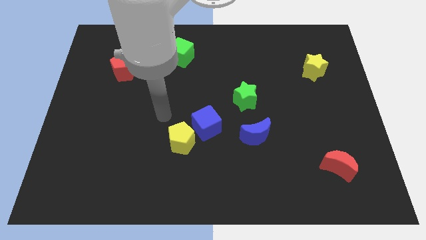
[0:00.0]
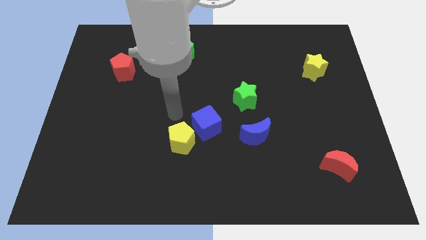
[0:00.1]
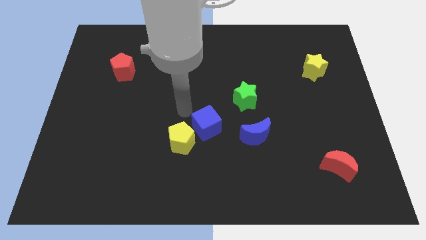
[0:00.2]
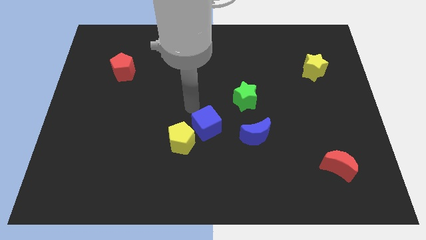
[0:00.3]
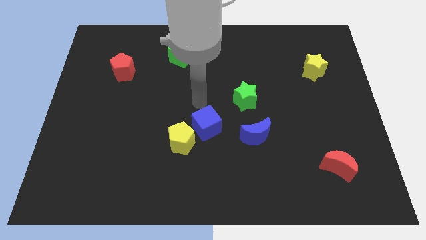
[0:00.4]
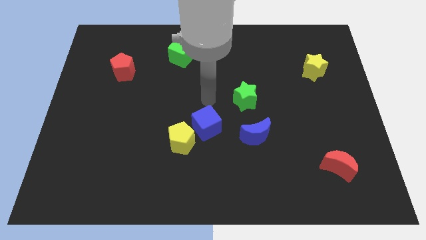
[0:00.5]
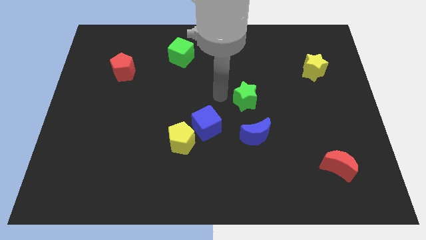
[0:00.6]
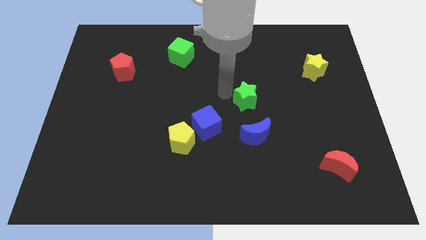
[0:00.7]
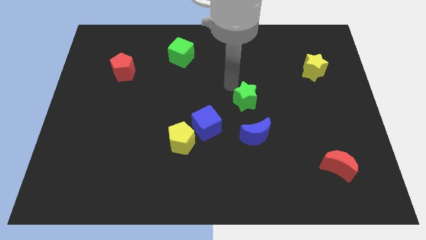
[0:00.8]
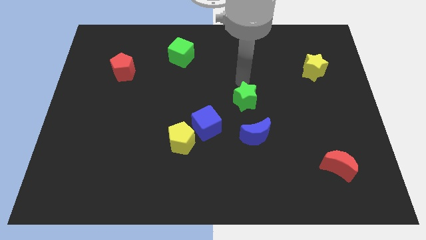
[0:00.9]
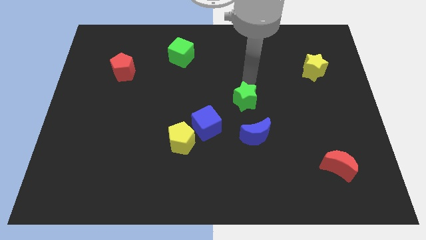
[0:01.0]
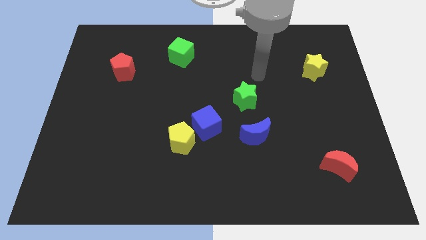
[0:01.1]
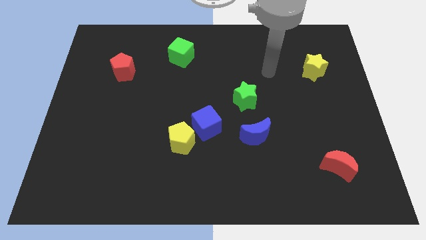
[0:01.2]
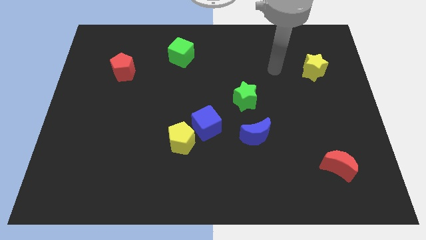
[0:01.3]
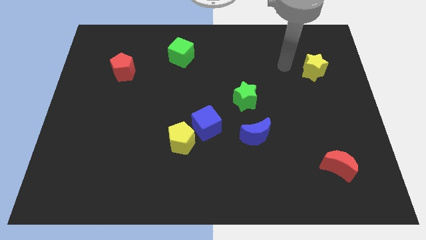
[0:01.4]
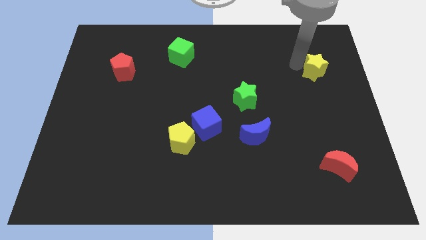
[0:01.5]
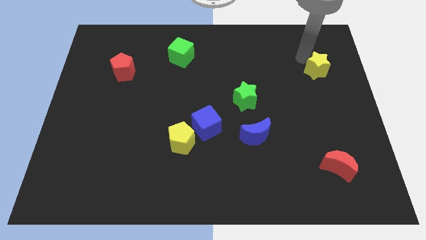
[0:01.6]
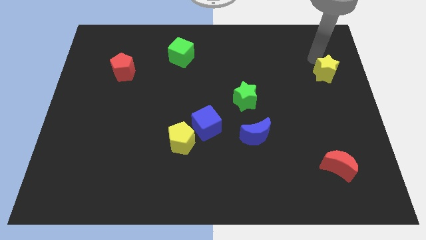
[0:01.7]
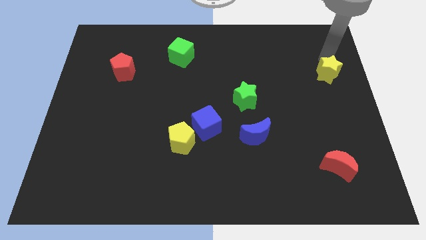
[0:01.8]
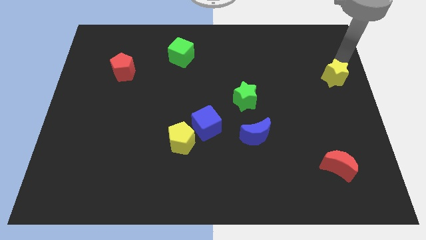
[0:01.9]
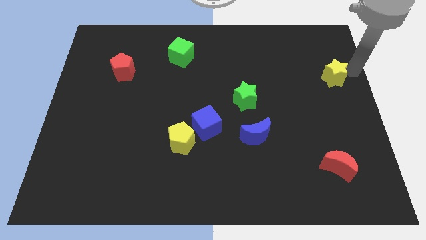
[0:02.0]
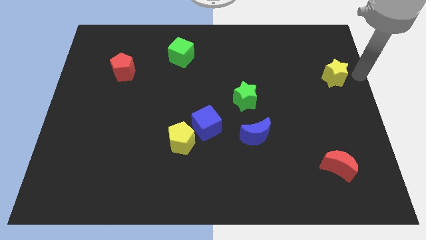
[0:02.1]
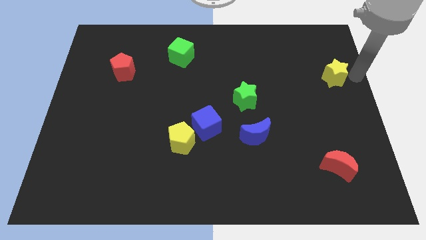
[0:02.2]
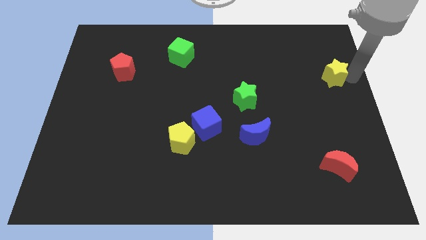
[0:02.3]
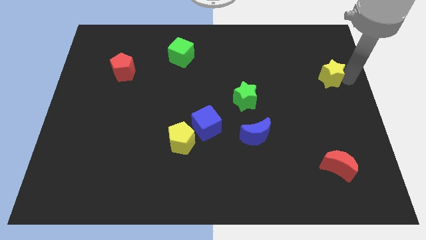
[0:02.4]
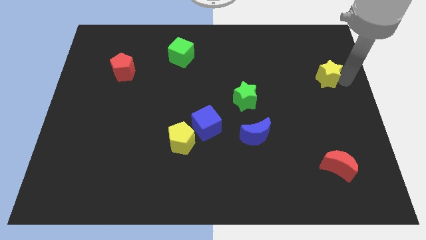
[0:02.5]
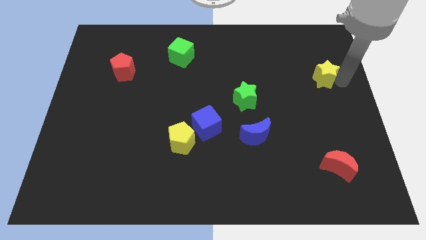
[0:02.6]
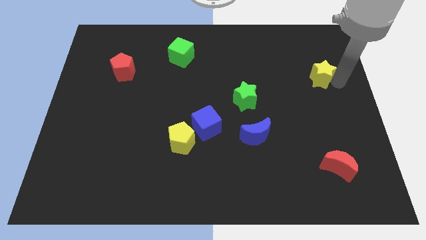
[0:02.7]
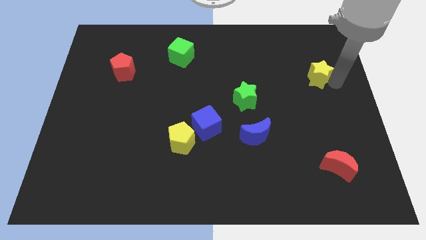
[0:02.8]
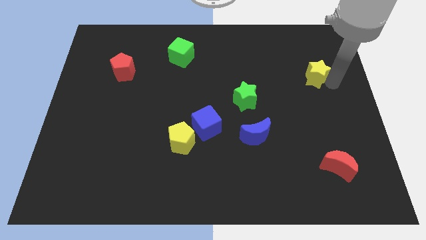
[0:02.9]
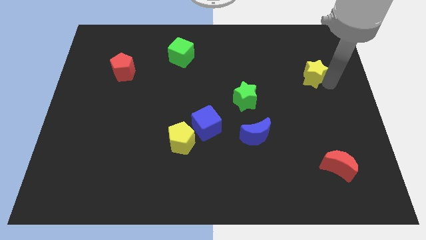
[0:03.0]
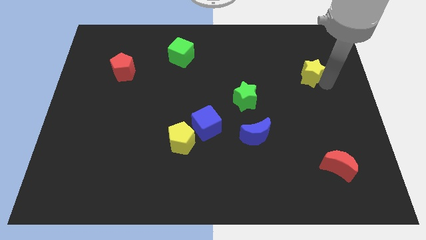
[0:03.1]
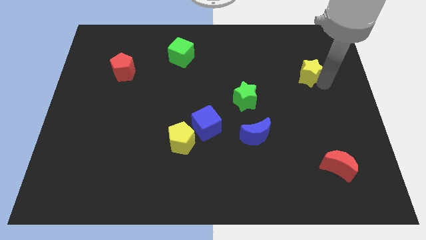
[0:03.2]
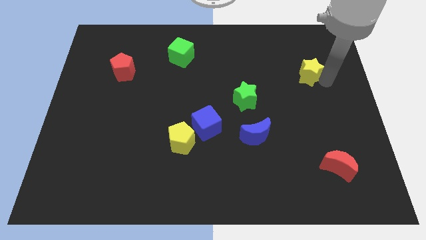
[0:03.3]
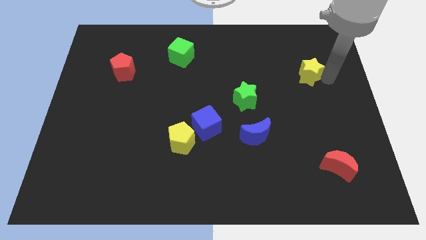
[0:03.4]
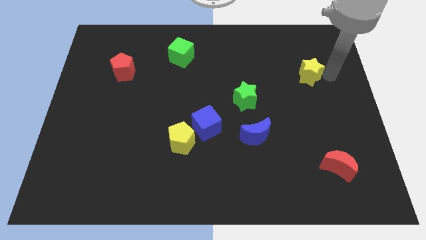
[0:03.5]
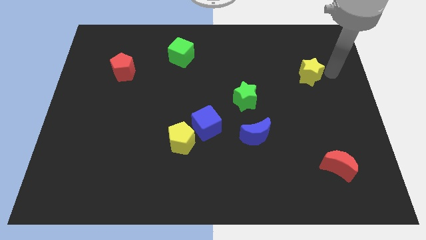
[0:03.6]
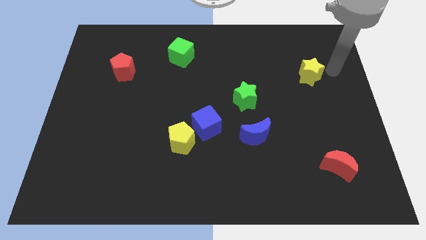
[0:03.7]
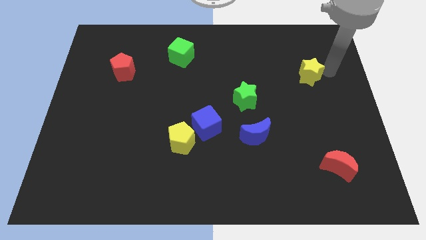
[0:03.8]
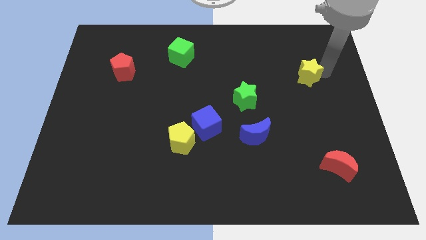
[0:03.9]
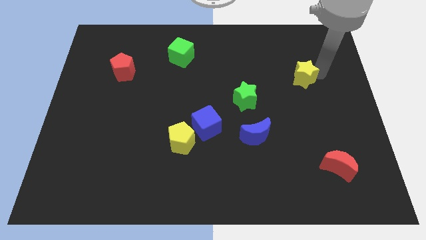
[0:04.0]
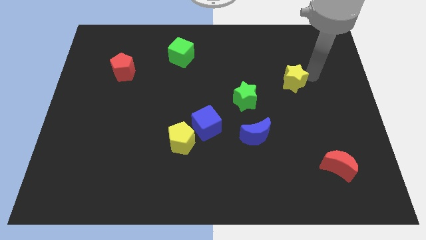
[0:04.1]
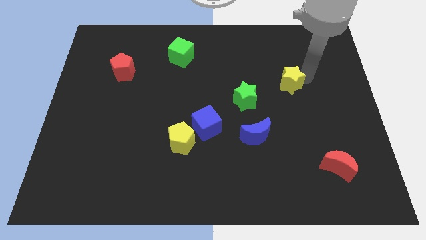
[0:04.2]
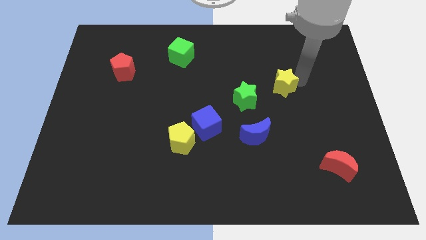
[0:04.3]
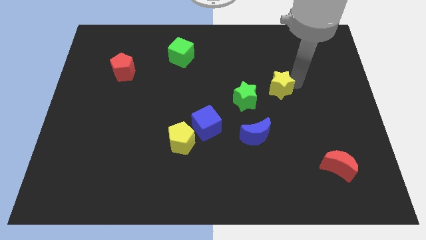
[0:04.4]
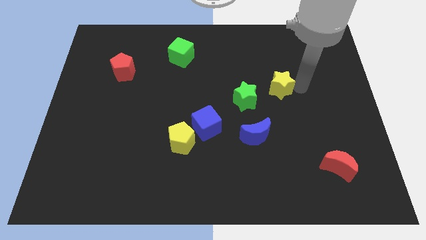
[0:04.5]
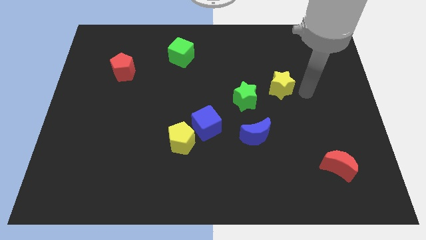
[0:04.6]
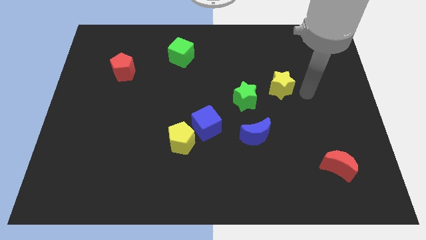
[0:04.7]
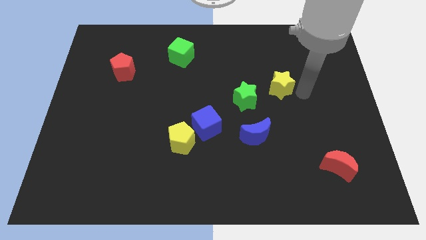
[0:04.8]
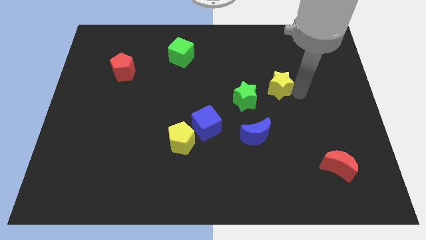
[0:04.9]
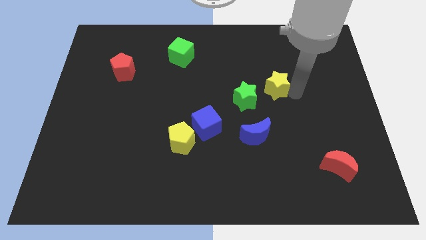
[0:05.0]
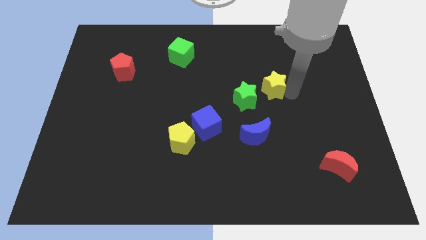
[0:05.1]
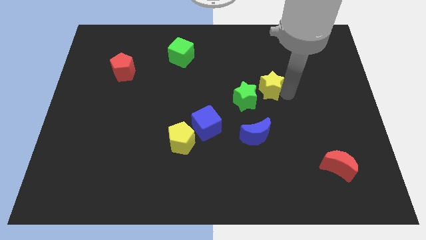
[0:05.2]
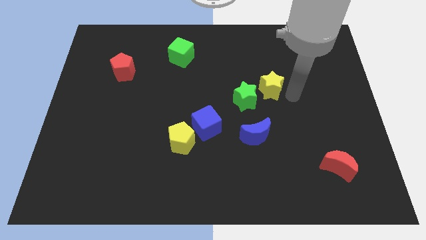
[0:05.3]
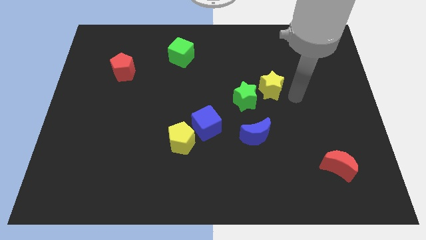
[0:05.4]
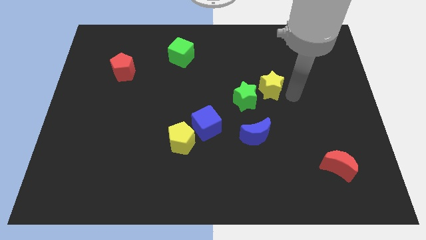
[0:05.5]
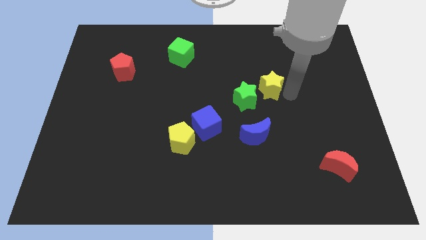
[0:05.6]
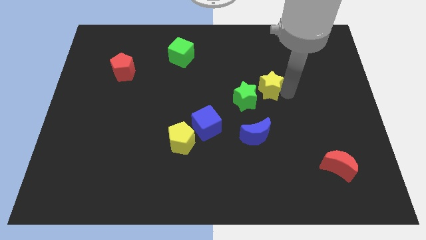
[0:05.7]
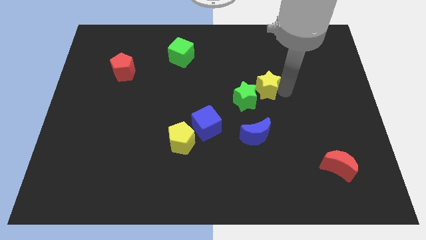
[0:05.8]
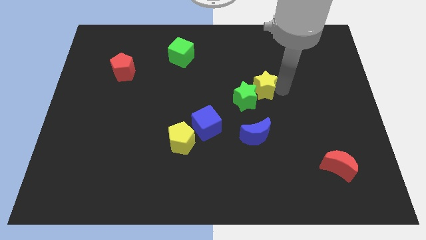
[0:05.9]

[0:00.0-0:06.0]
put the yellow star to the center
